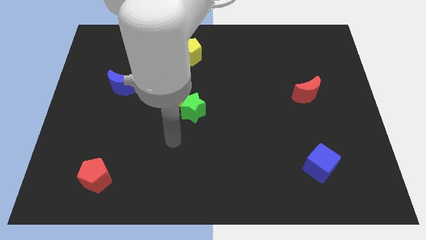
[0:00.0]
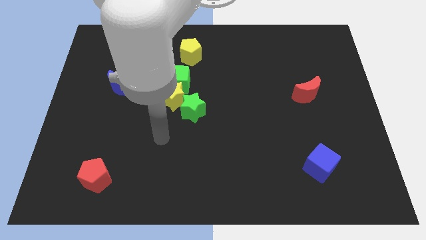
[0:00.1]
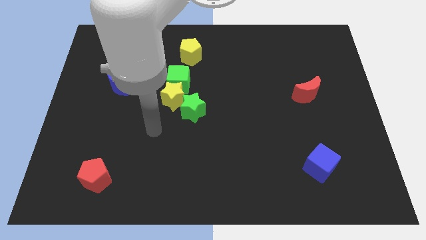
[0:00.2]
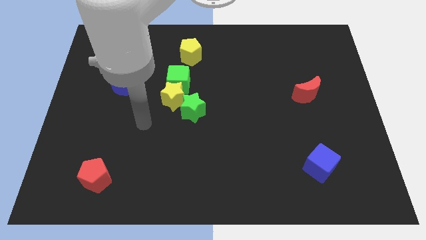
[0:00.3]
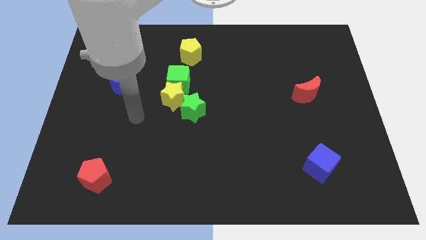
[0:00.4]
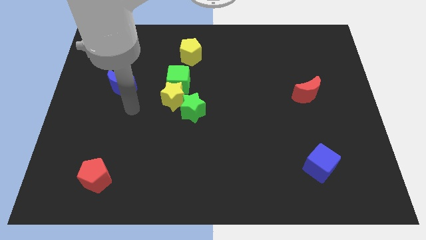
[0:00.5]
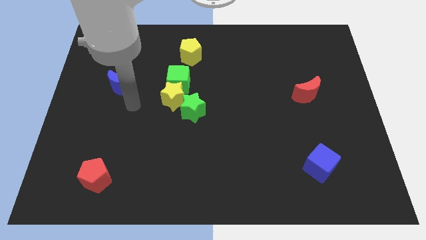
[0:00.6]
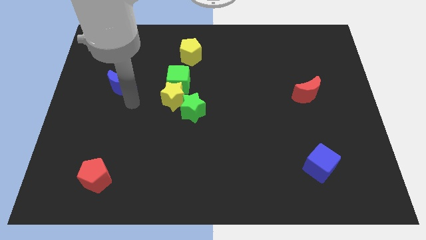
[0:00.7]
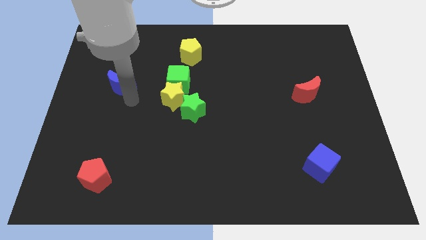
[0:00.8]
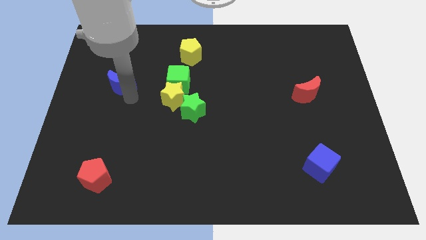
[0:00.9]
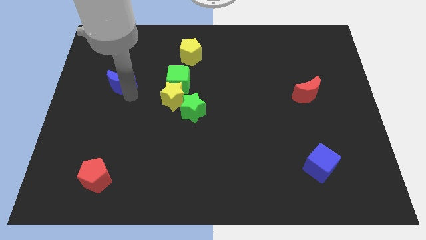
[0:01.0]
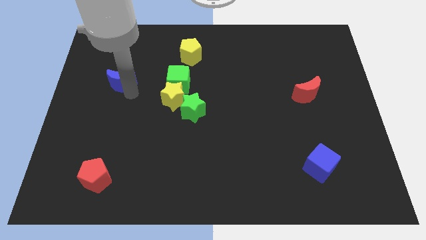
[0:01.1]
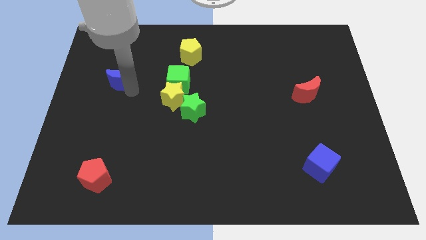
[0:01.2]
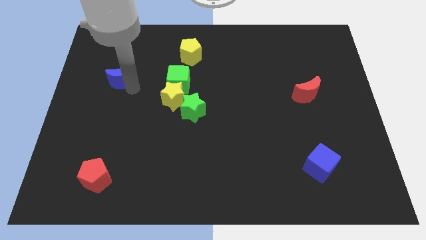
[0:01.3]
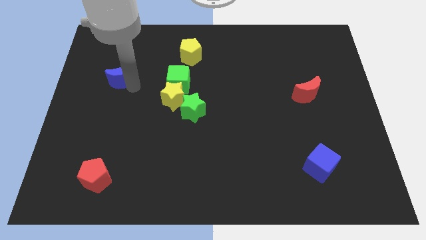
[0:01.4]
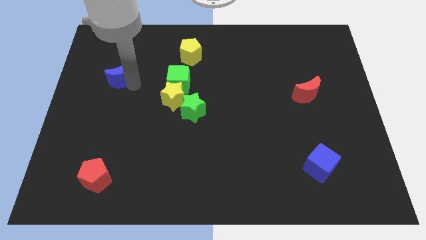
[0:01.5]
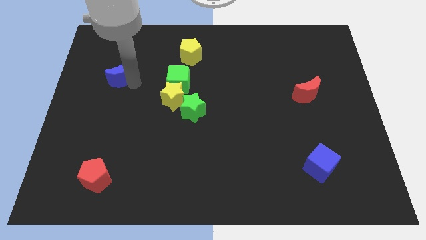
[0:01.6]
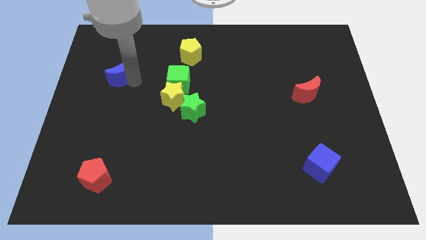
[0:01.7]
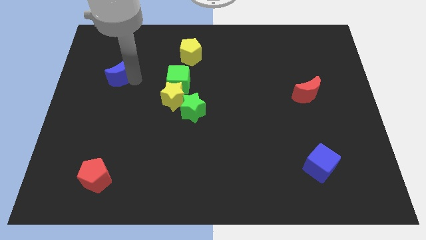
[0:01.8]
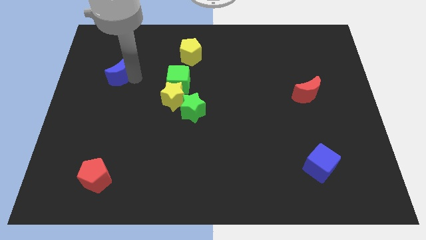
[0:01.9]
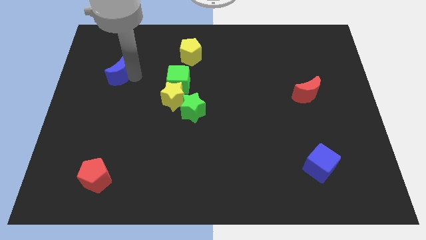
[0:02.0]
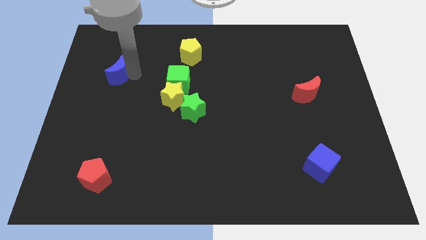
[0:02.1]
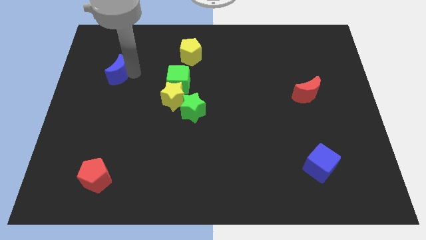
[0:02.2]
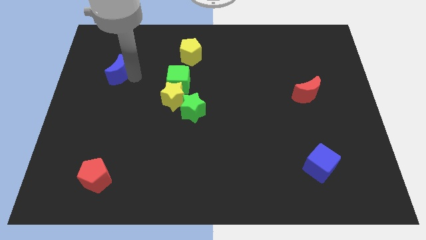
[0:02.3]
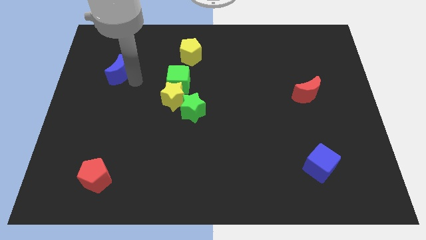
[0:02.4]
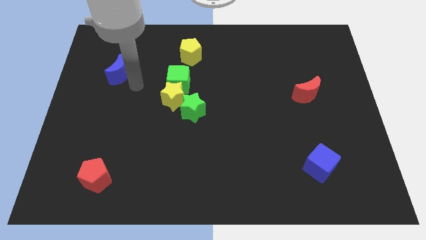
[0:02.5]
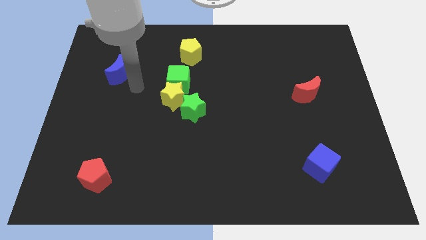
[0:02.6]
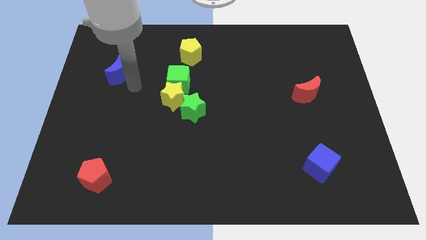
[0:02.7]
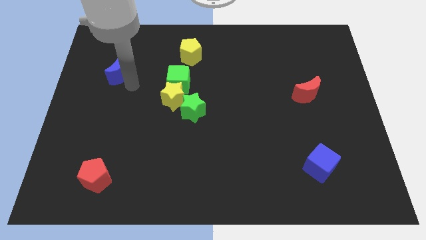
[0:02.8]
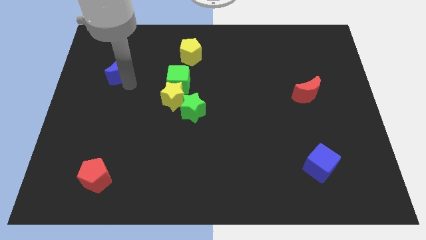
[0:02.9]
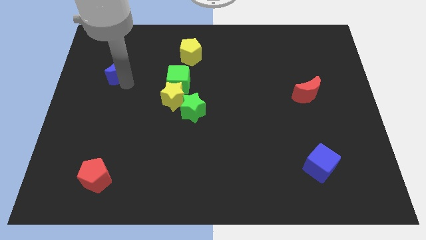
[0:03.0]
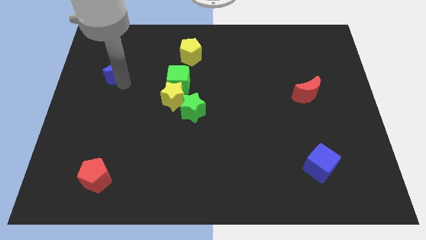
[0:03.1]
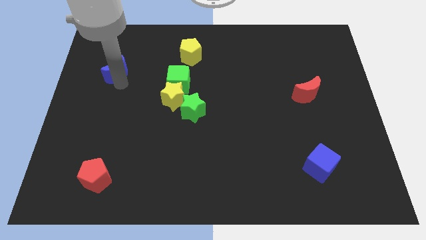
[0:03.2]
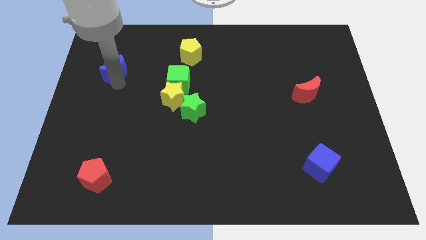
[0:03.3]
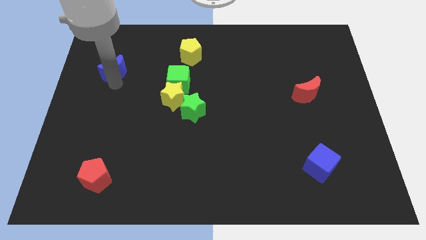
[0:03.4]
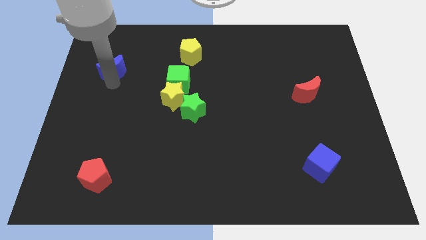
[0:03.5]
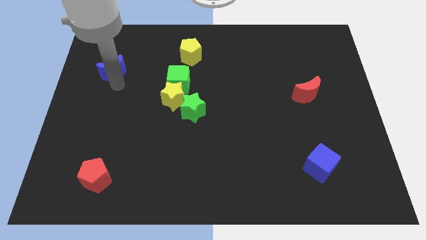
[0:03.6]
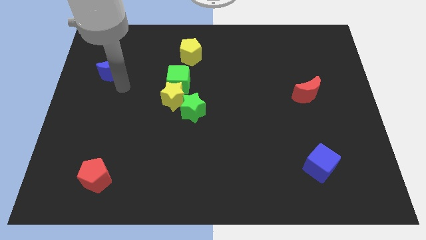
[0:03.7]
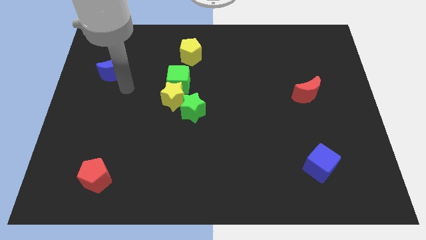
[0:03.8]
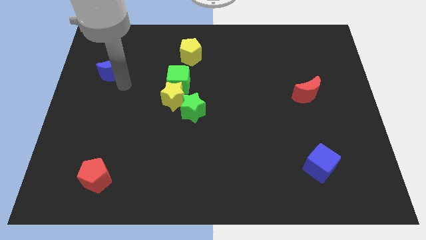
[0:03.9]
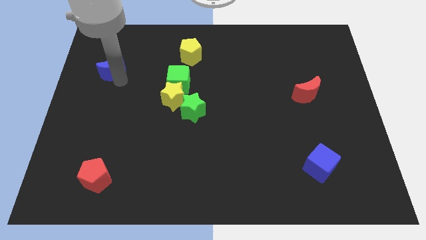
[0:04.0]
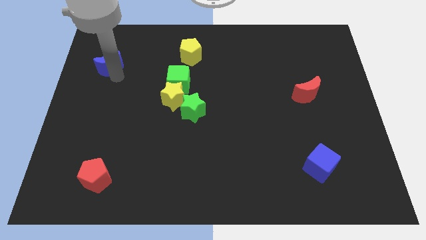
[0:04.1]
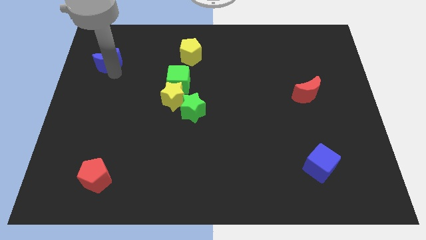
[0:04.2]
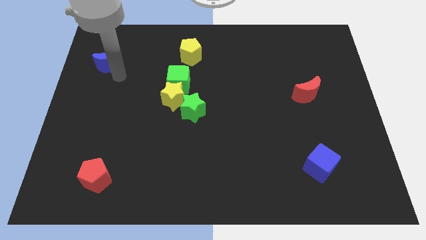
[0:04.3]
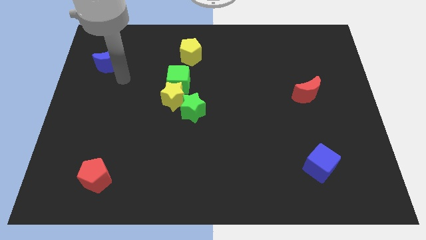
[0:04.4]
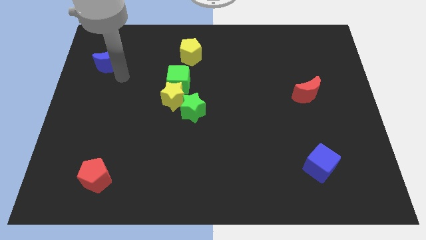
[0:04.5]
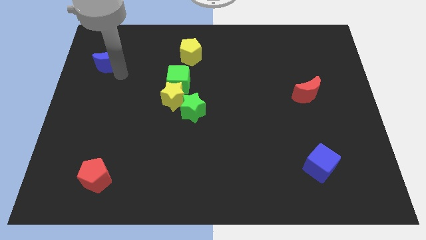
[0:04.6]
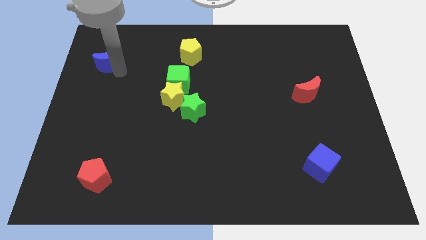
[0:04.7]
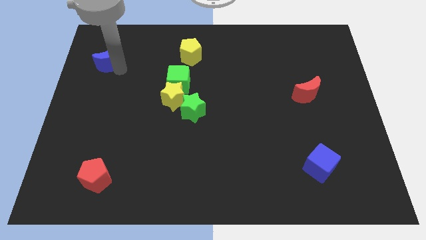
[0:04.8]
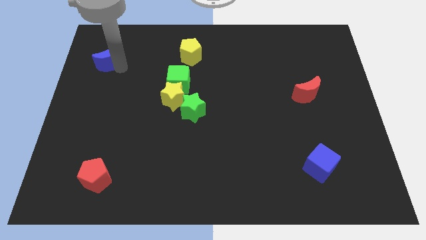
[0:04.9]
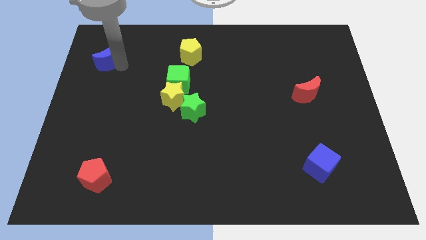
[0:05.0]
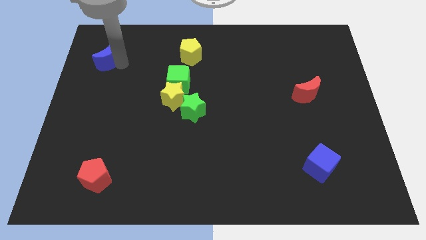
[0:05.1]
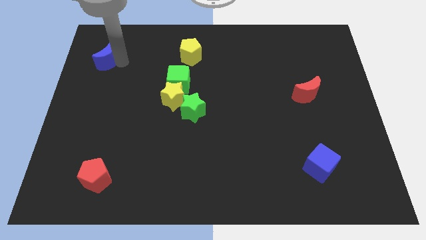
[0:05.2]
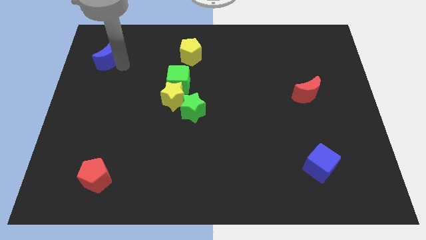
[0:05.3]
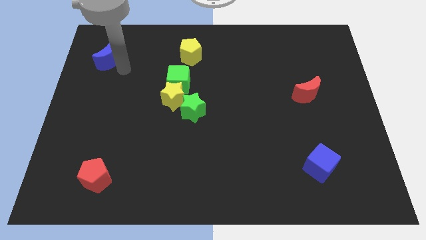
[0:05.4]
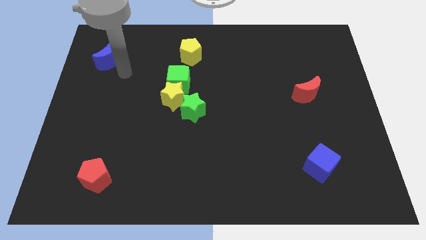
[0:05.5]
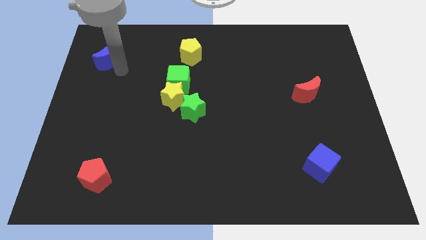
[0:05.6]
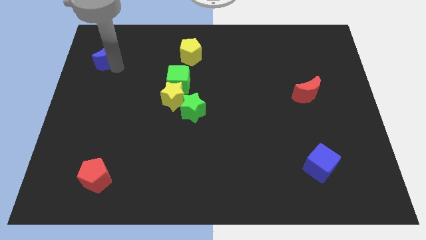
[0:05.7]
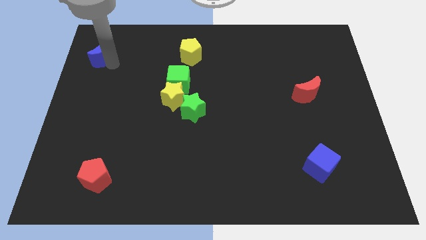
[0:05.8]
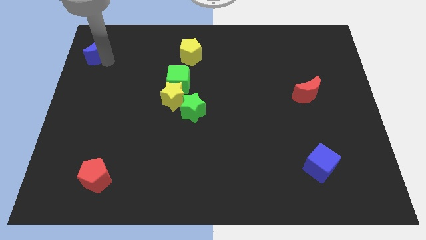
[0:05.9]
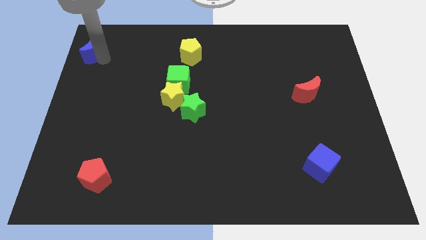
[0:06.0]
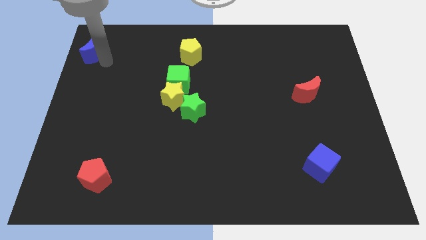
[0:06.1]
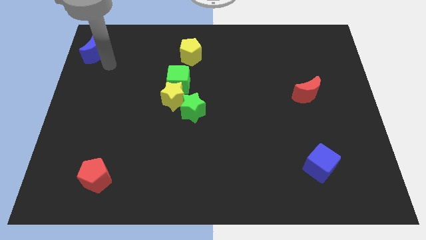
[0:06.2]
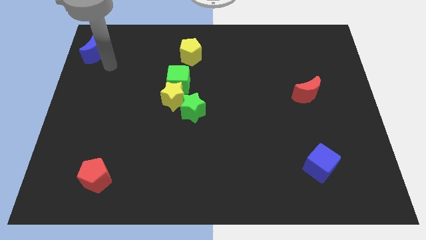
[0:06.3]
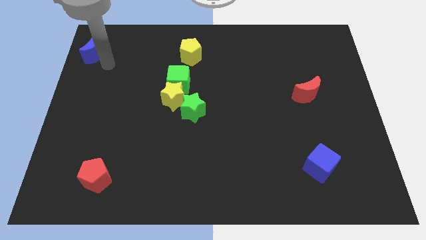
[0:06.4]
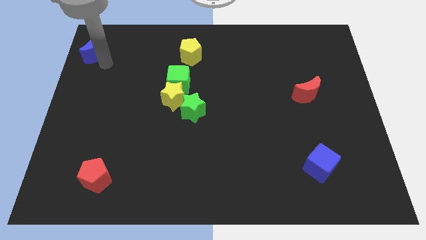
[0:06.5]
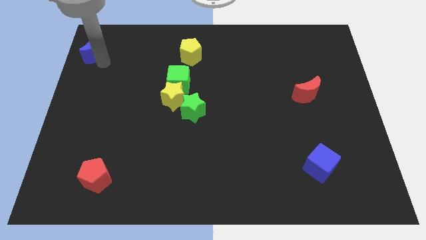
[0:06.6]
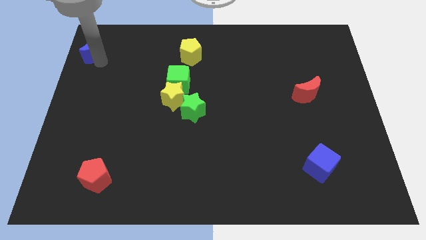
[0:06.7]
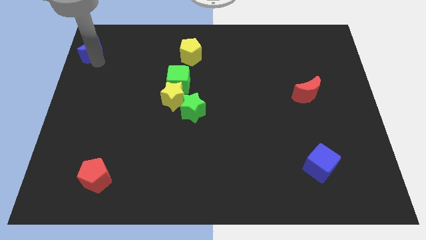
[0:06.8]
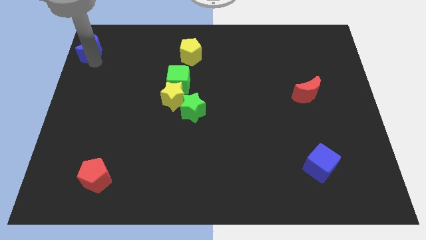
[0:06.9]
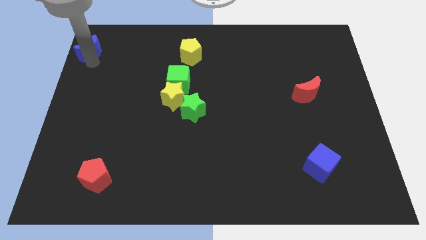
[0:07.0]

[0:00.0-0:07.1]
put the blue moon to the top left corner
